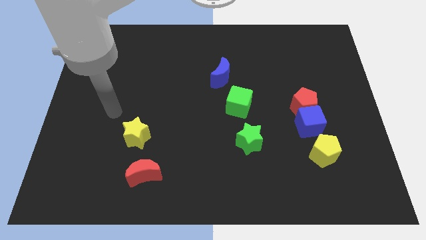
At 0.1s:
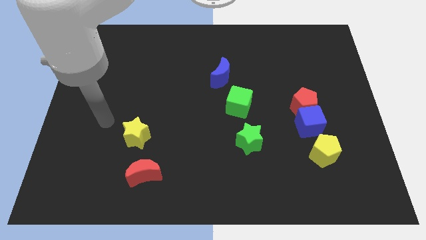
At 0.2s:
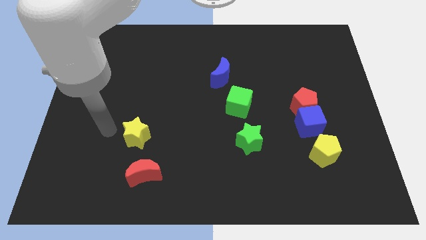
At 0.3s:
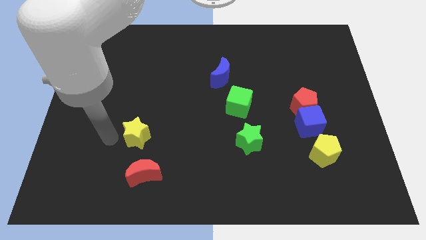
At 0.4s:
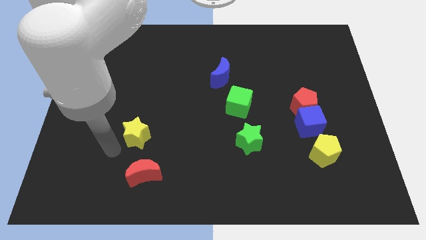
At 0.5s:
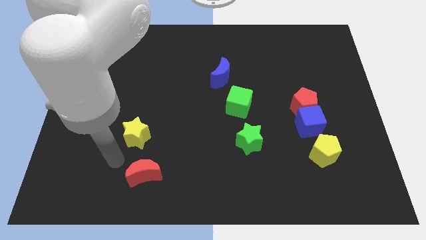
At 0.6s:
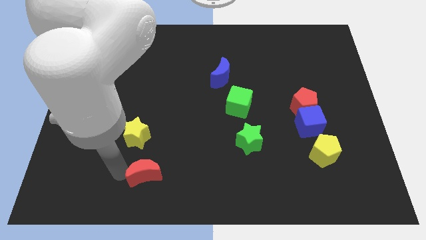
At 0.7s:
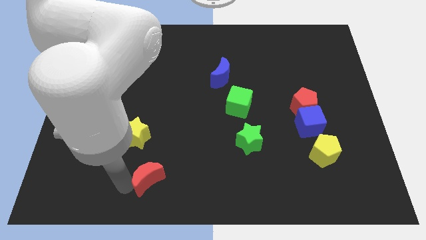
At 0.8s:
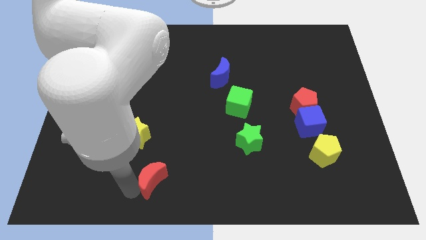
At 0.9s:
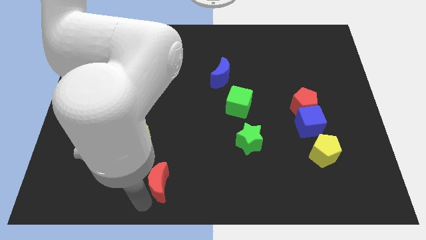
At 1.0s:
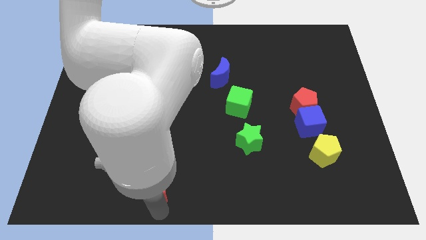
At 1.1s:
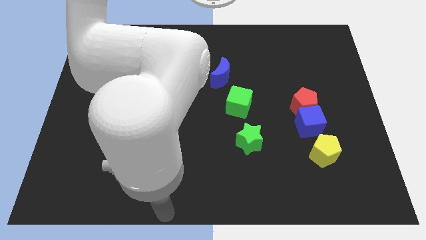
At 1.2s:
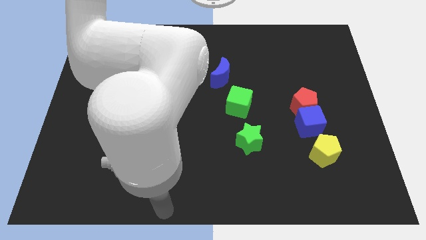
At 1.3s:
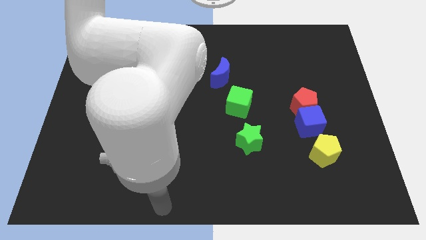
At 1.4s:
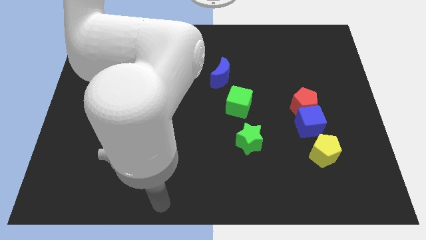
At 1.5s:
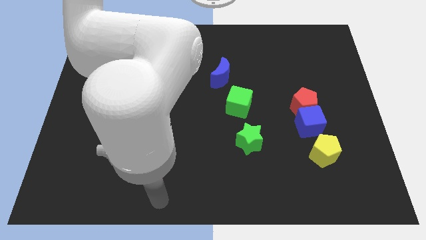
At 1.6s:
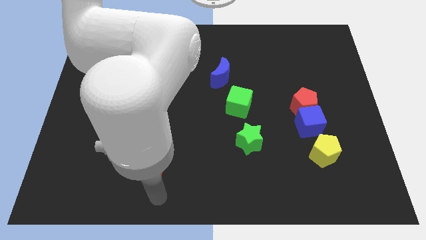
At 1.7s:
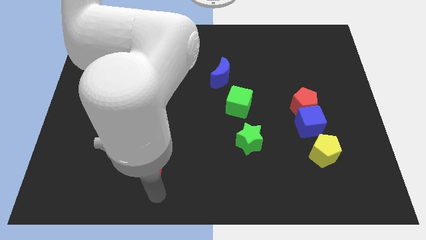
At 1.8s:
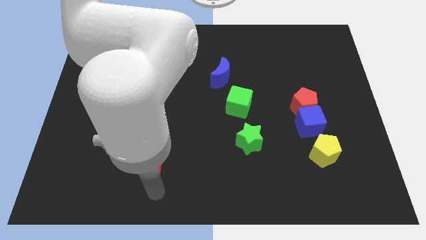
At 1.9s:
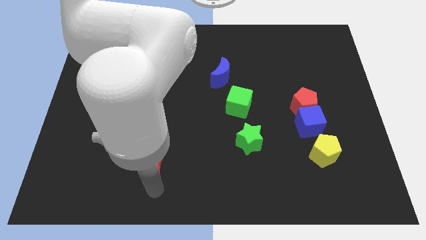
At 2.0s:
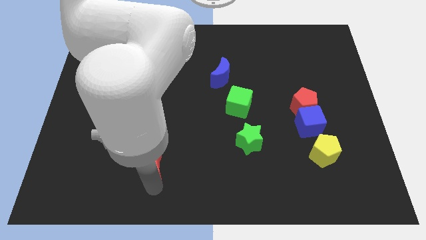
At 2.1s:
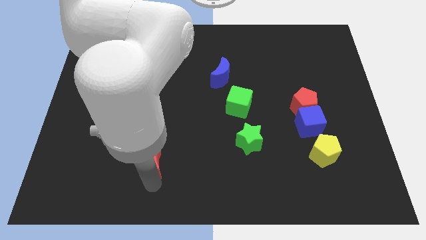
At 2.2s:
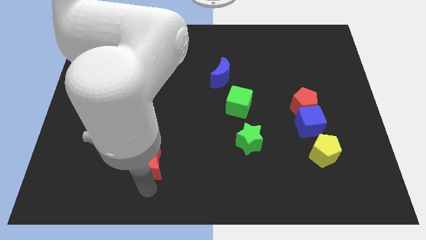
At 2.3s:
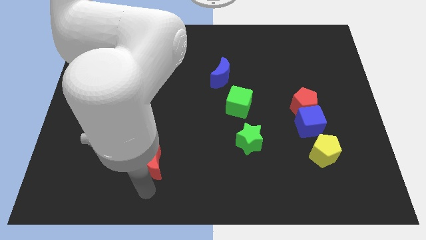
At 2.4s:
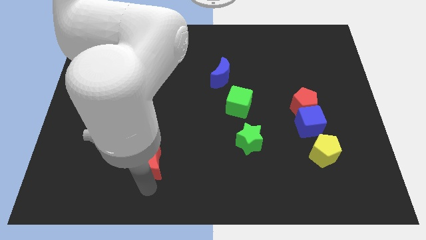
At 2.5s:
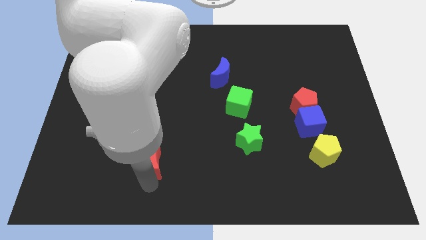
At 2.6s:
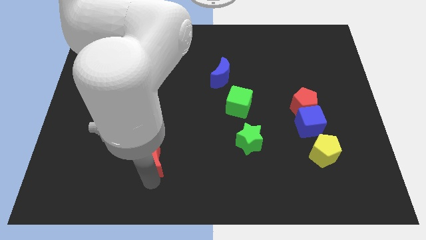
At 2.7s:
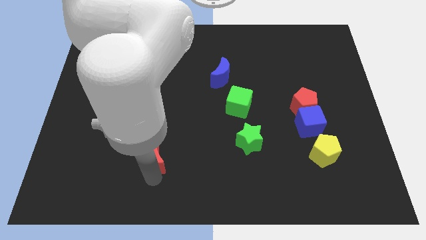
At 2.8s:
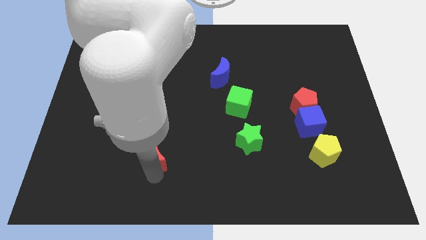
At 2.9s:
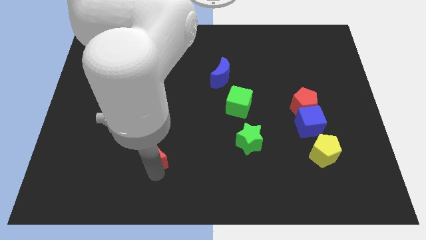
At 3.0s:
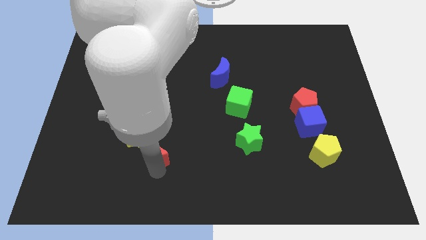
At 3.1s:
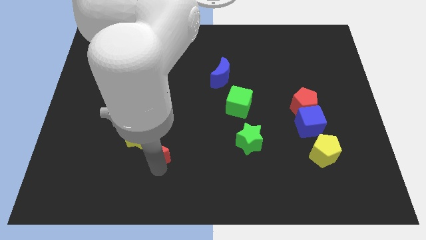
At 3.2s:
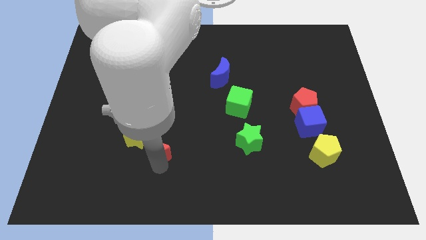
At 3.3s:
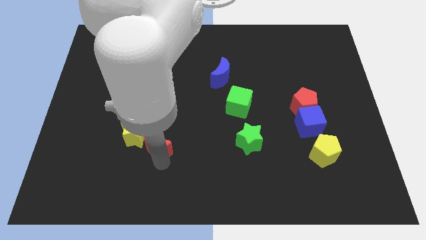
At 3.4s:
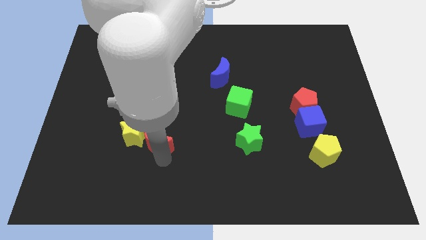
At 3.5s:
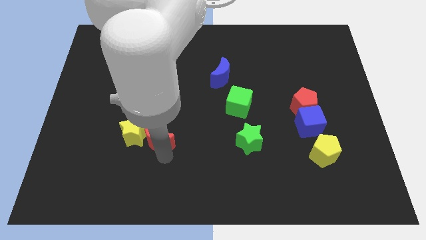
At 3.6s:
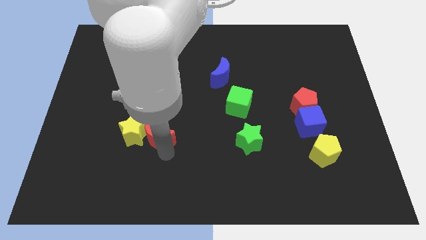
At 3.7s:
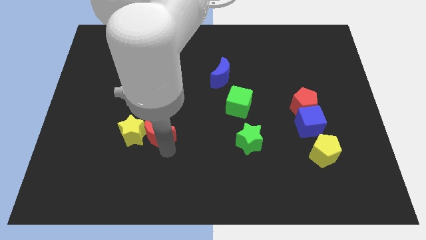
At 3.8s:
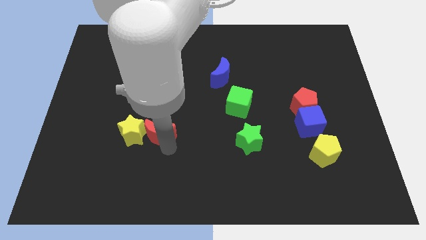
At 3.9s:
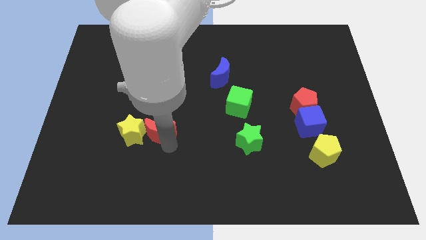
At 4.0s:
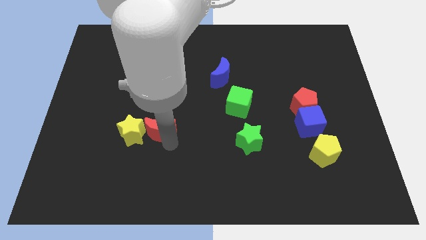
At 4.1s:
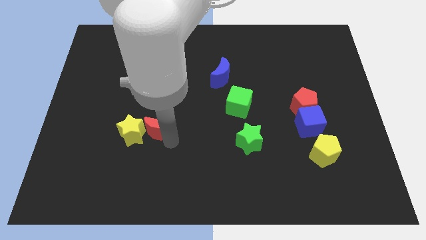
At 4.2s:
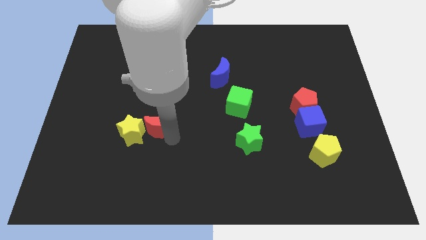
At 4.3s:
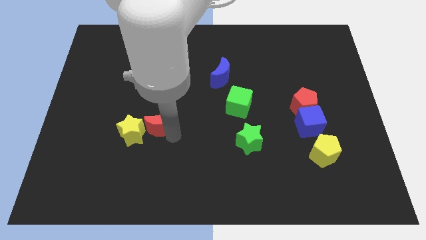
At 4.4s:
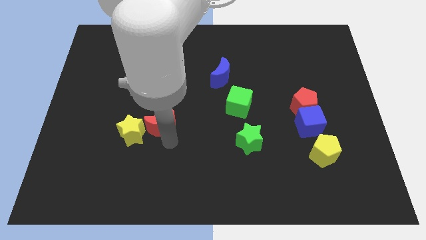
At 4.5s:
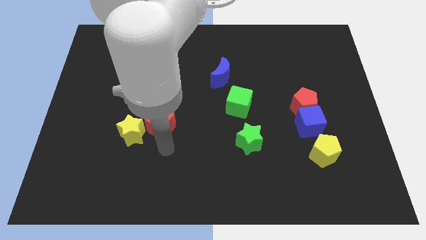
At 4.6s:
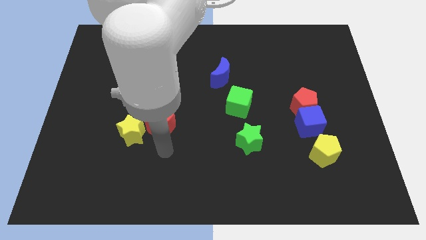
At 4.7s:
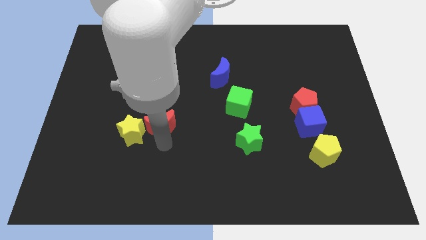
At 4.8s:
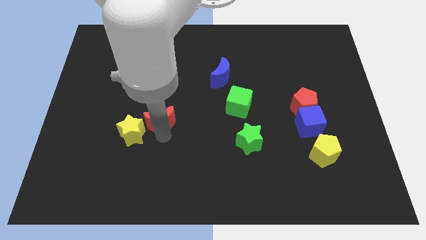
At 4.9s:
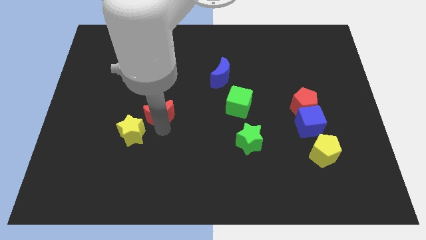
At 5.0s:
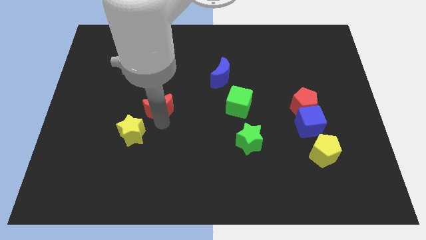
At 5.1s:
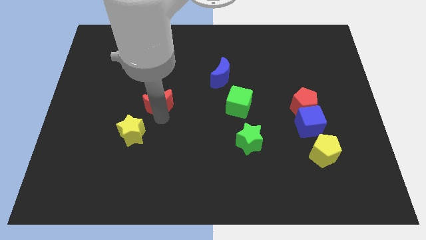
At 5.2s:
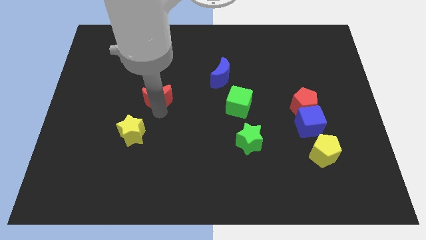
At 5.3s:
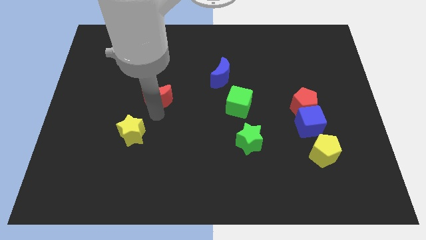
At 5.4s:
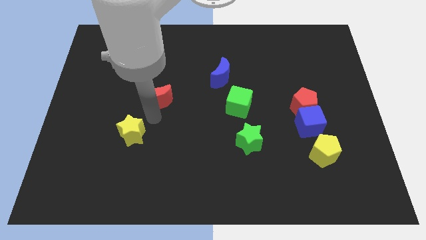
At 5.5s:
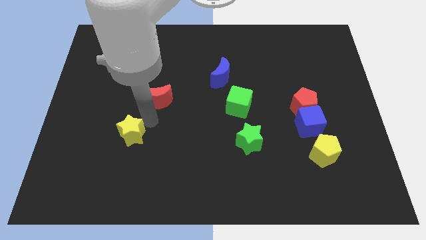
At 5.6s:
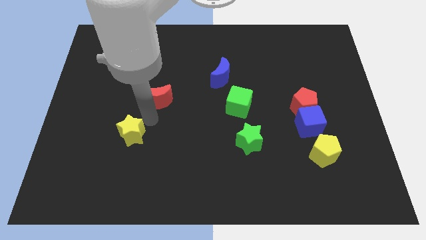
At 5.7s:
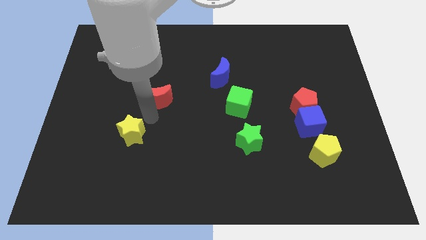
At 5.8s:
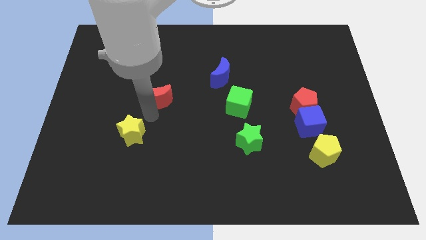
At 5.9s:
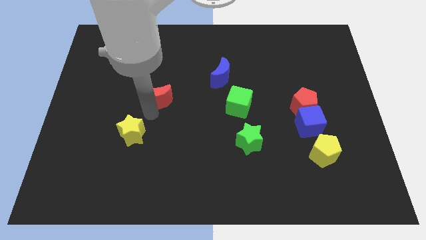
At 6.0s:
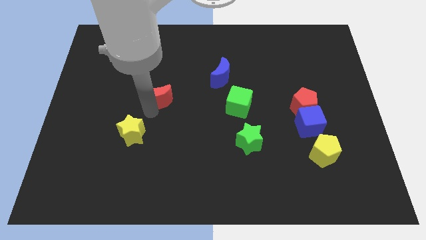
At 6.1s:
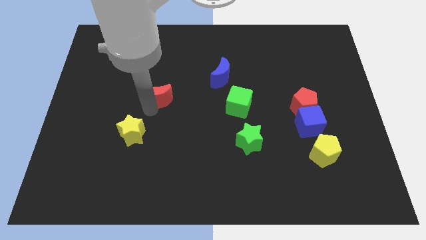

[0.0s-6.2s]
slide the red moon upwards

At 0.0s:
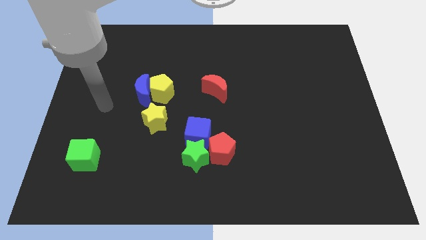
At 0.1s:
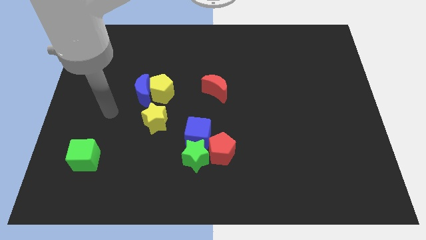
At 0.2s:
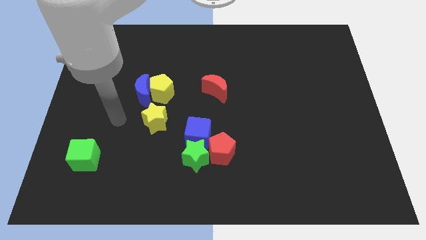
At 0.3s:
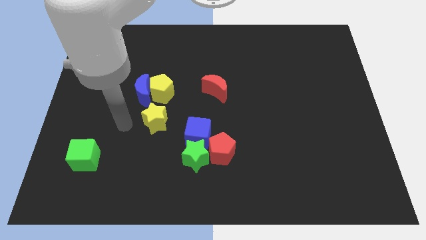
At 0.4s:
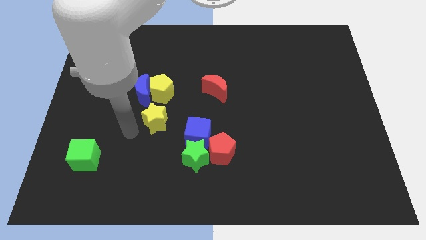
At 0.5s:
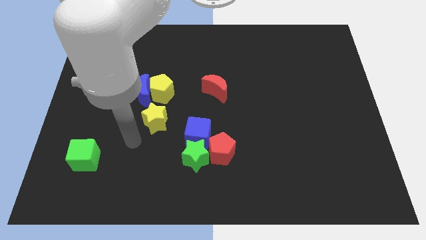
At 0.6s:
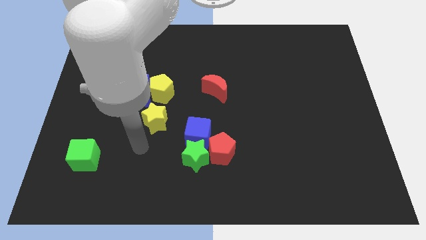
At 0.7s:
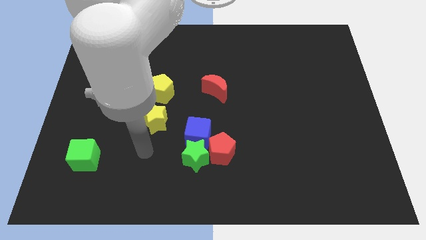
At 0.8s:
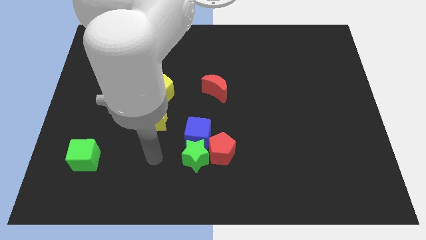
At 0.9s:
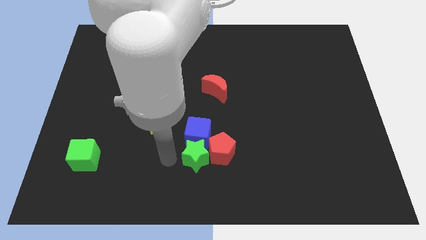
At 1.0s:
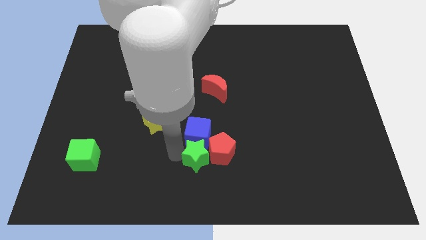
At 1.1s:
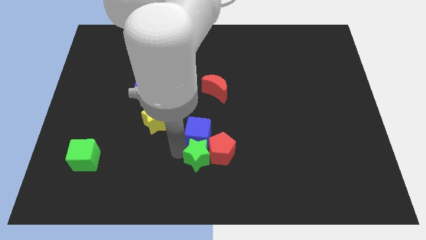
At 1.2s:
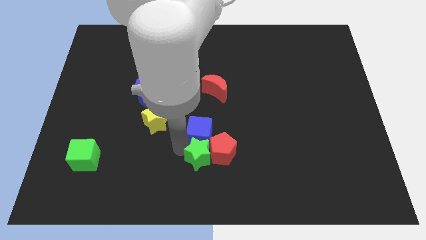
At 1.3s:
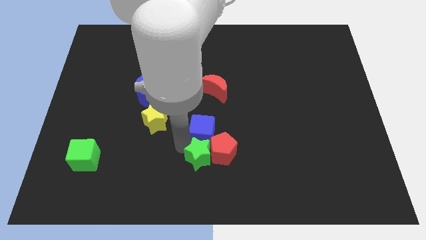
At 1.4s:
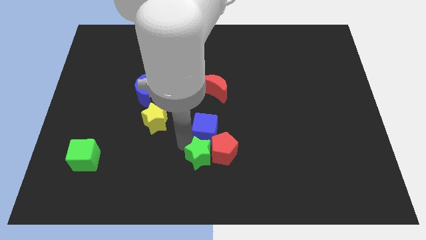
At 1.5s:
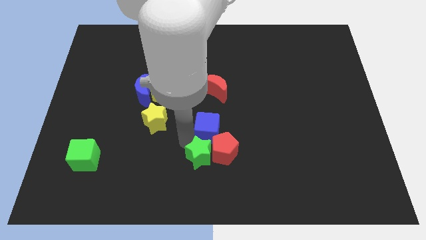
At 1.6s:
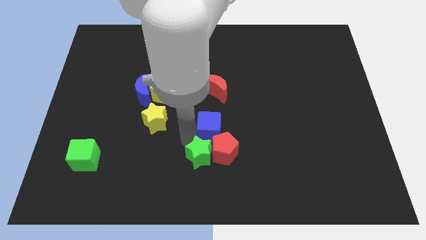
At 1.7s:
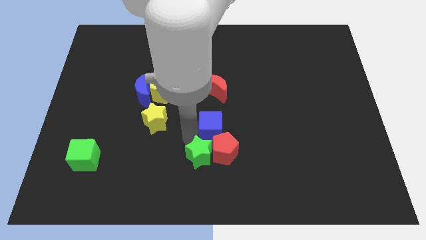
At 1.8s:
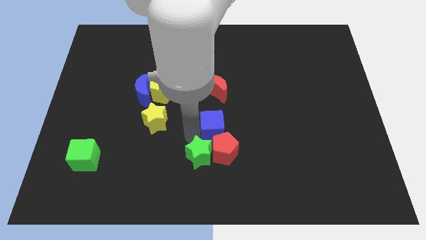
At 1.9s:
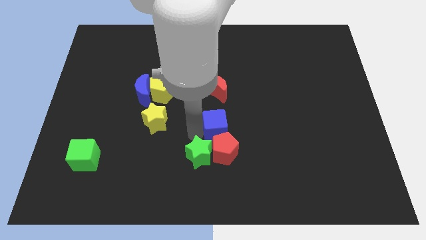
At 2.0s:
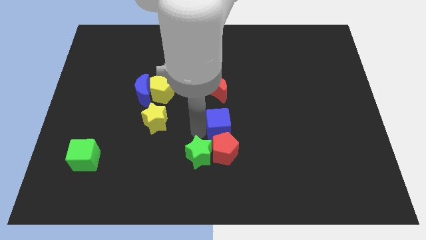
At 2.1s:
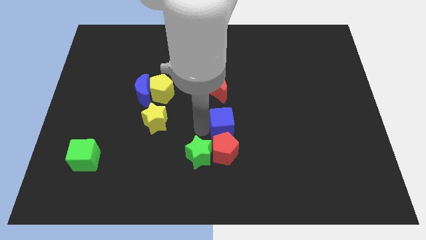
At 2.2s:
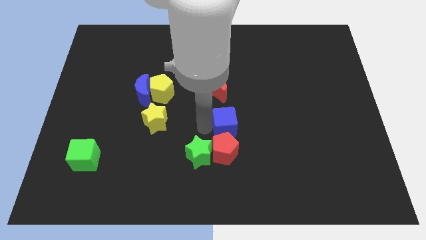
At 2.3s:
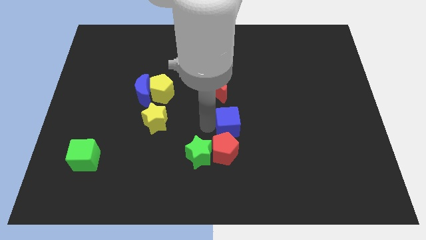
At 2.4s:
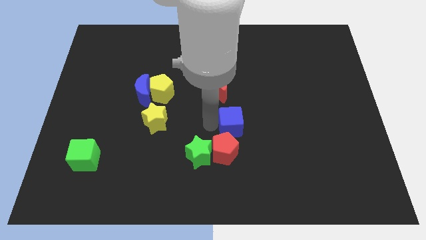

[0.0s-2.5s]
push the blue cube diagonally up and to the right a bit
